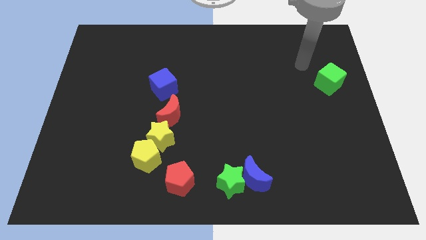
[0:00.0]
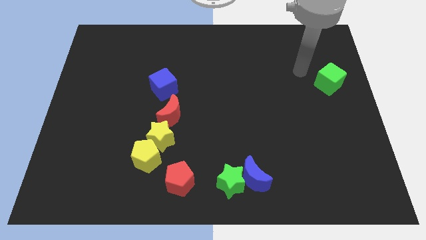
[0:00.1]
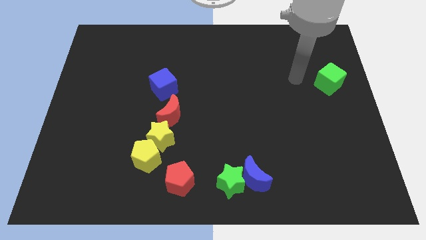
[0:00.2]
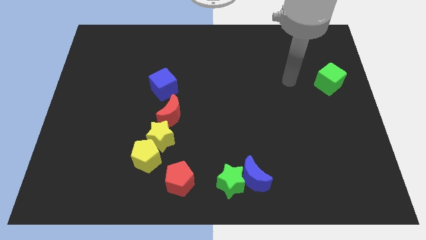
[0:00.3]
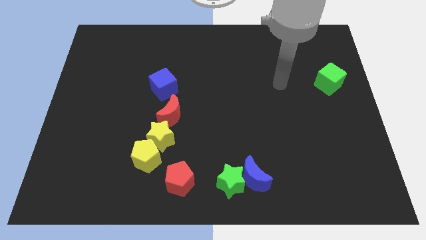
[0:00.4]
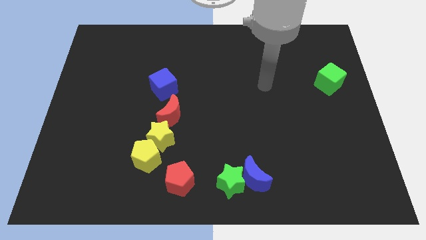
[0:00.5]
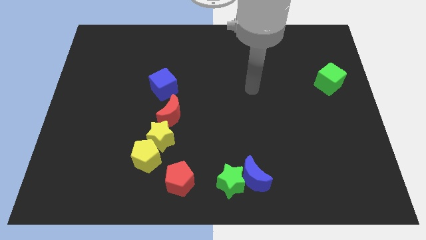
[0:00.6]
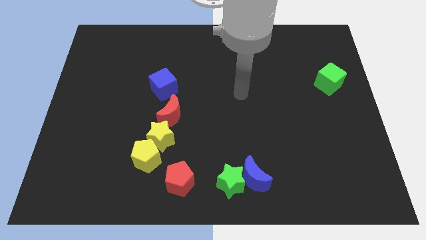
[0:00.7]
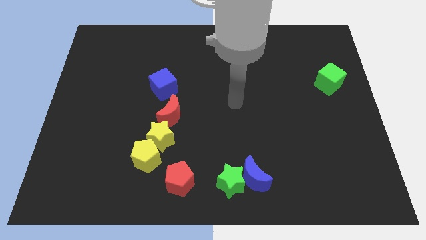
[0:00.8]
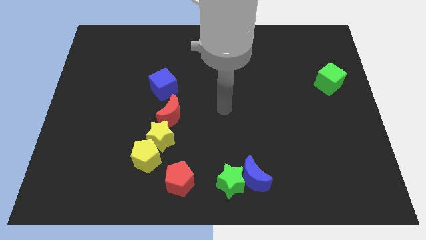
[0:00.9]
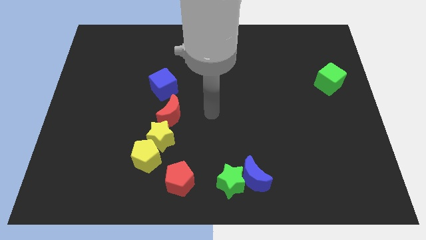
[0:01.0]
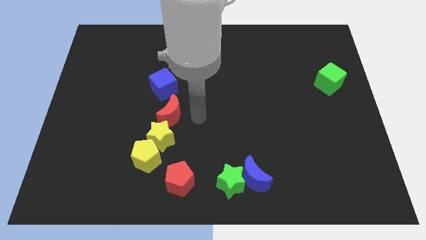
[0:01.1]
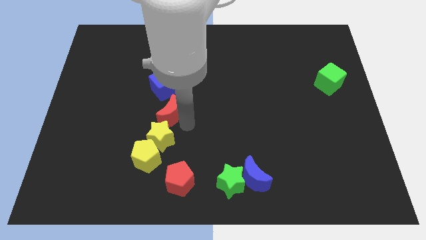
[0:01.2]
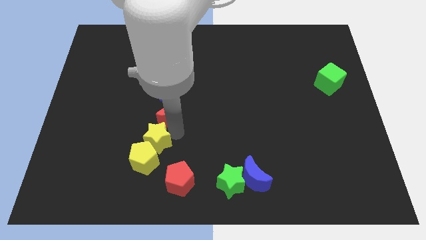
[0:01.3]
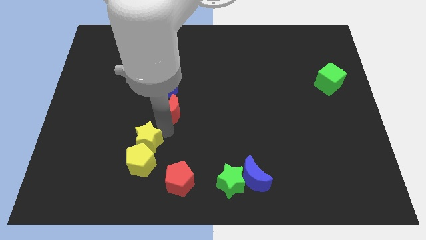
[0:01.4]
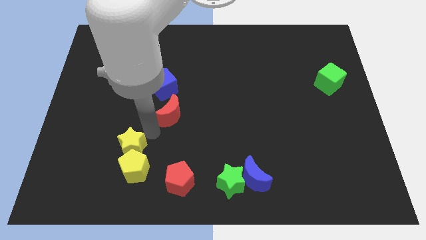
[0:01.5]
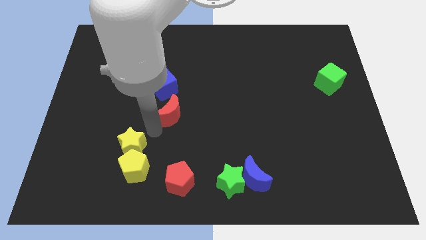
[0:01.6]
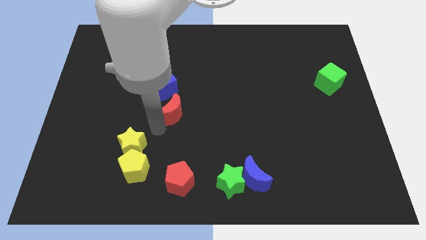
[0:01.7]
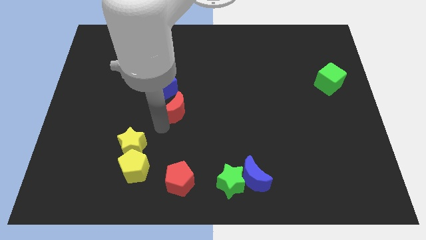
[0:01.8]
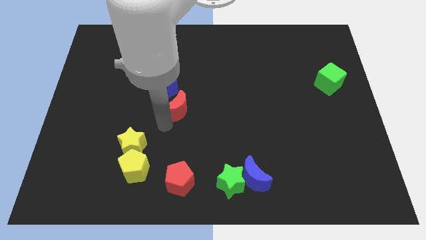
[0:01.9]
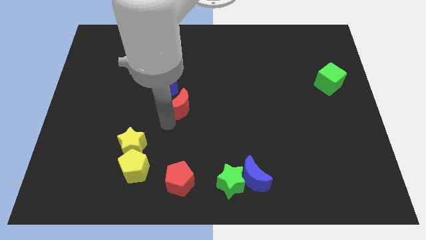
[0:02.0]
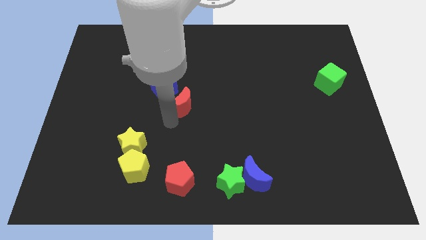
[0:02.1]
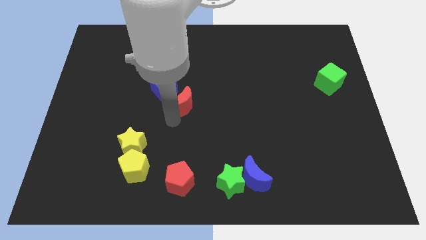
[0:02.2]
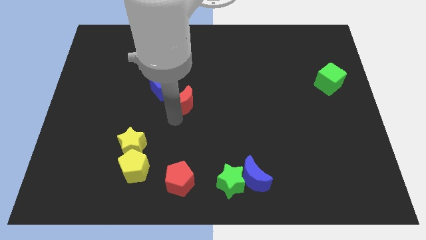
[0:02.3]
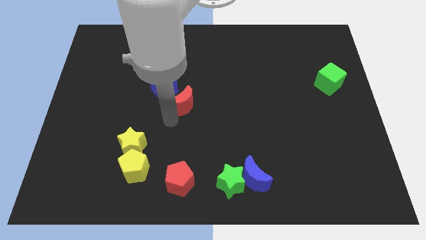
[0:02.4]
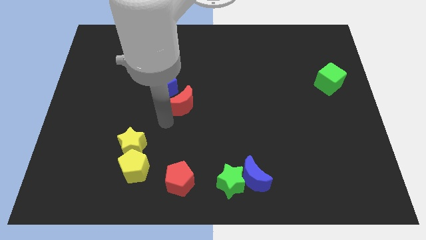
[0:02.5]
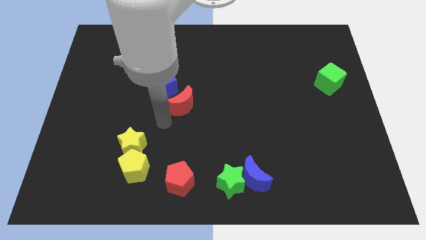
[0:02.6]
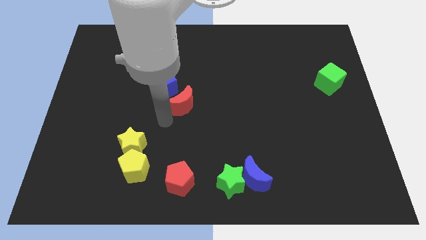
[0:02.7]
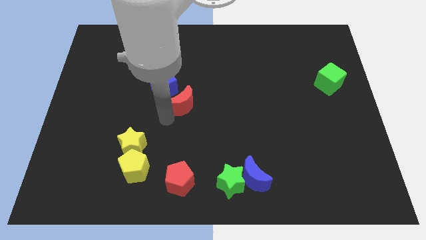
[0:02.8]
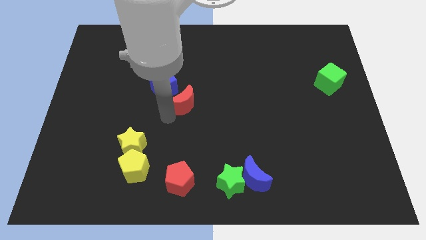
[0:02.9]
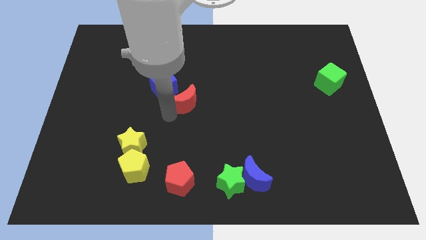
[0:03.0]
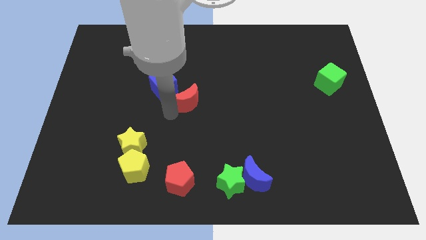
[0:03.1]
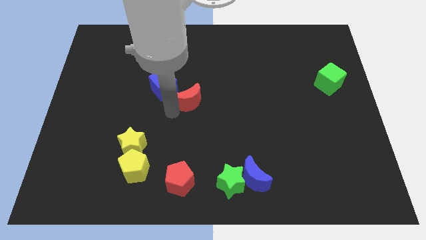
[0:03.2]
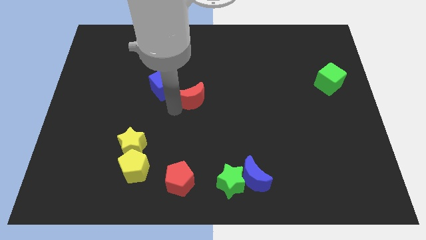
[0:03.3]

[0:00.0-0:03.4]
slightly push the red moon up and right diagonally

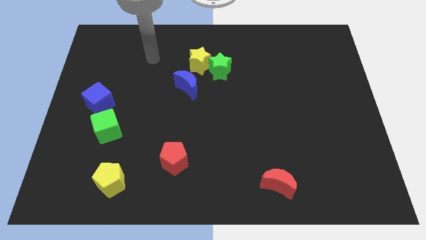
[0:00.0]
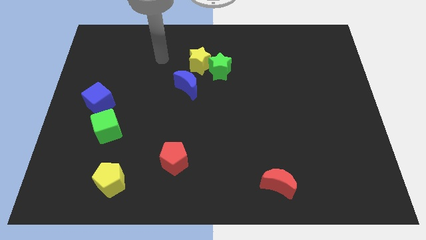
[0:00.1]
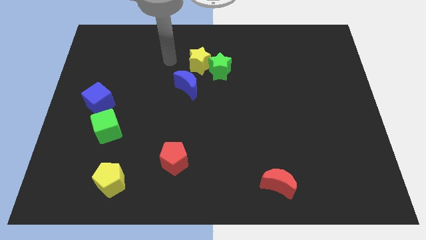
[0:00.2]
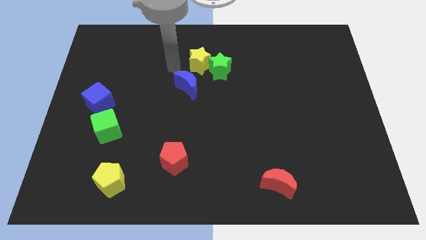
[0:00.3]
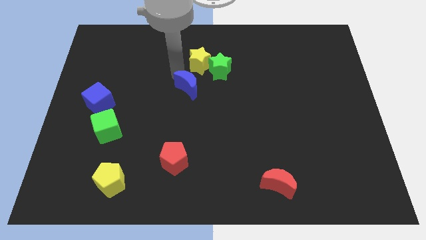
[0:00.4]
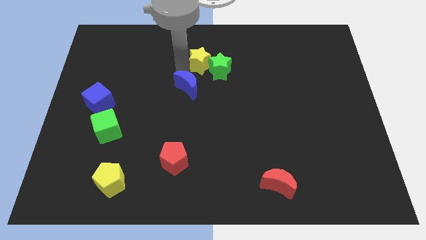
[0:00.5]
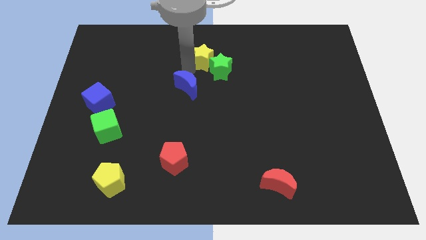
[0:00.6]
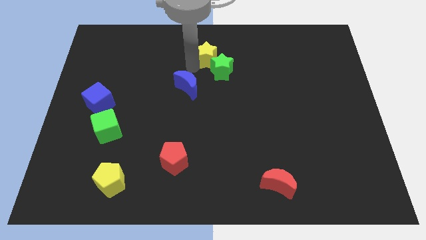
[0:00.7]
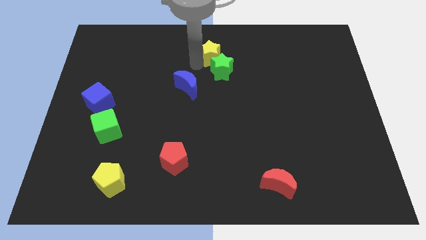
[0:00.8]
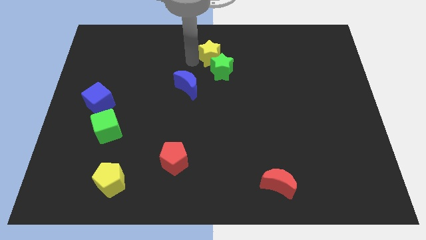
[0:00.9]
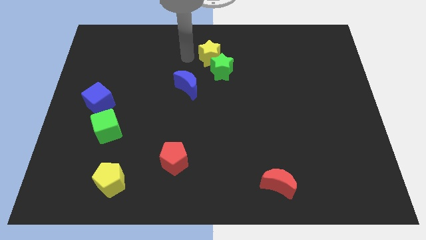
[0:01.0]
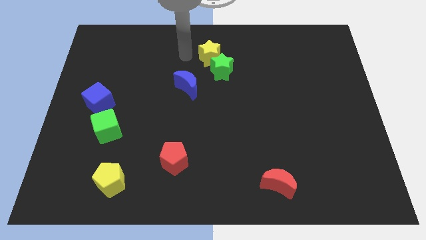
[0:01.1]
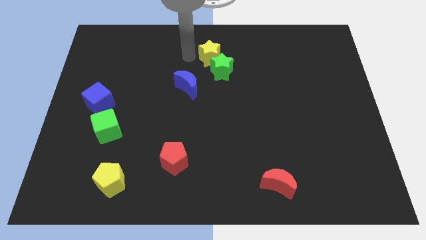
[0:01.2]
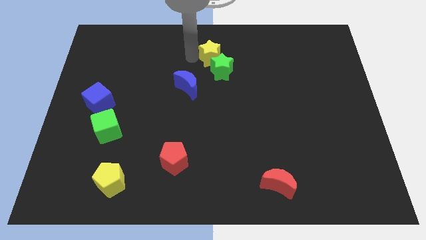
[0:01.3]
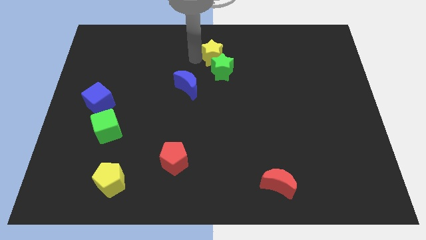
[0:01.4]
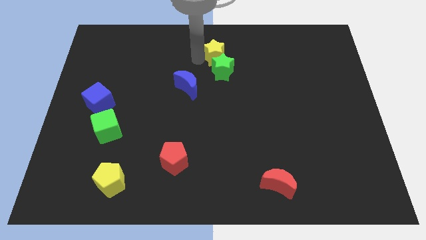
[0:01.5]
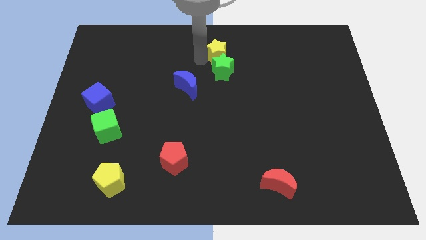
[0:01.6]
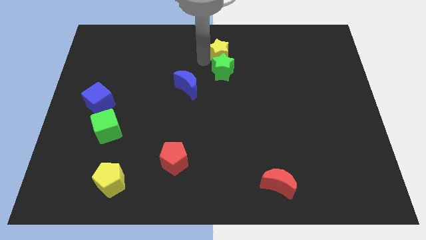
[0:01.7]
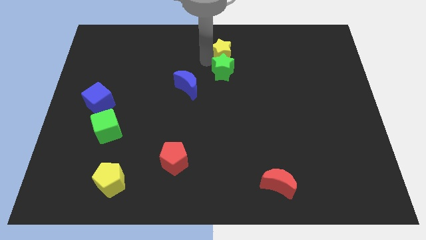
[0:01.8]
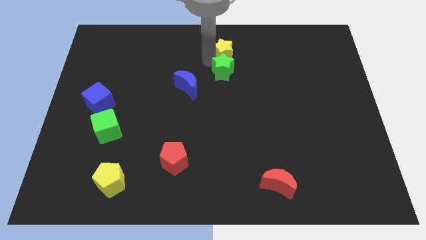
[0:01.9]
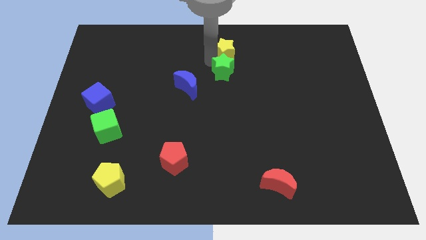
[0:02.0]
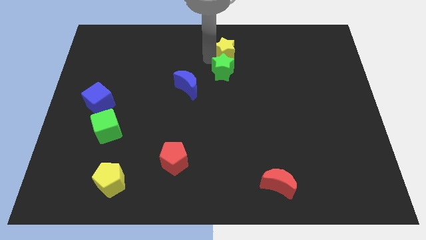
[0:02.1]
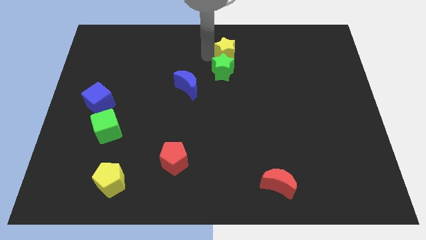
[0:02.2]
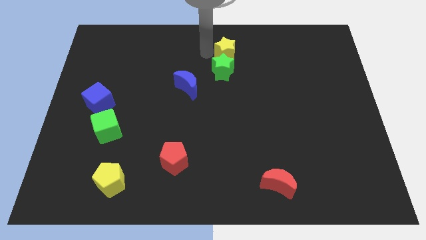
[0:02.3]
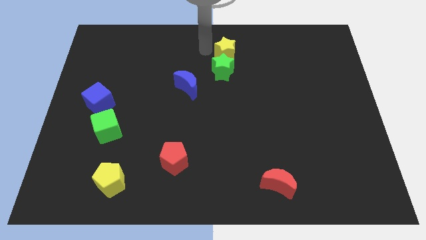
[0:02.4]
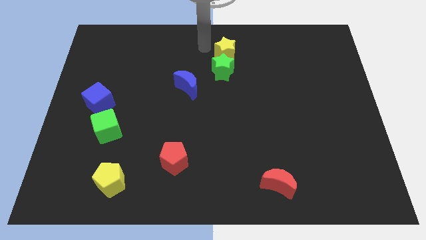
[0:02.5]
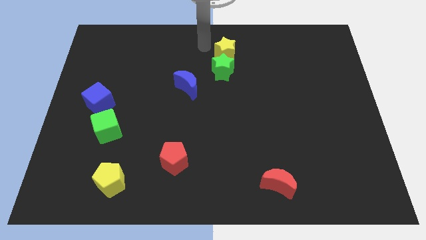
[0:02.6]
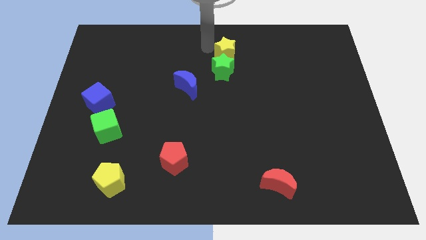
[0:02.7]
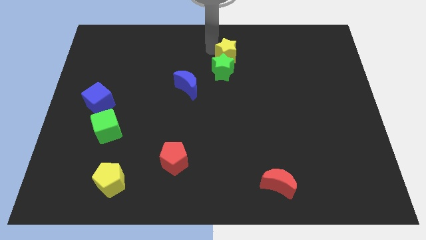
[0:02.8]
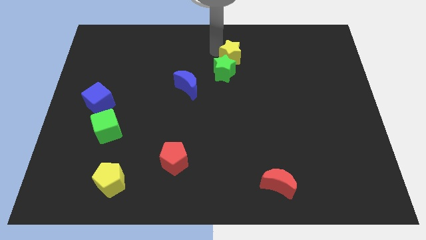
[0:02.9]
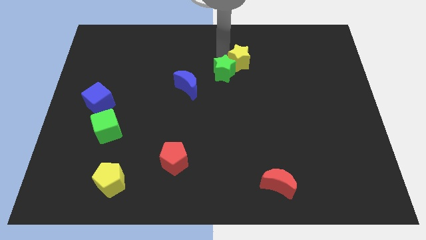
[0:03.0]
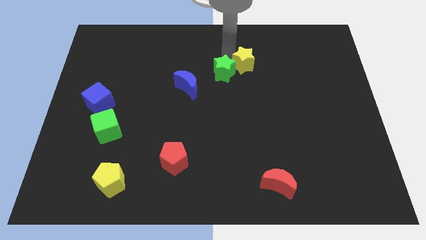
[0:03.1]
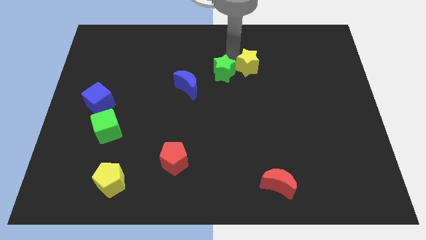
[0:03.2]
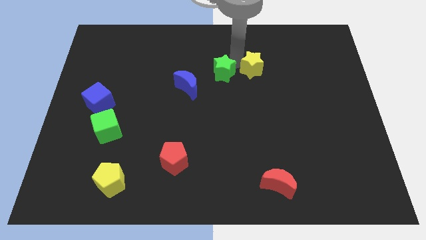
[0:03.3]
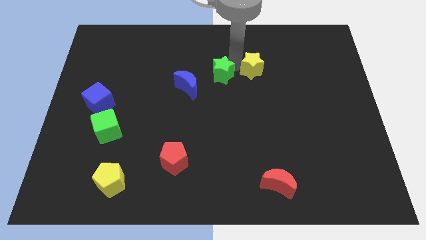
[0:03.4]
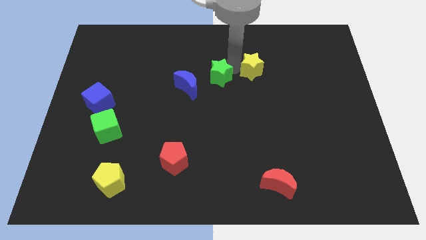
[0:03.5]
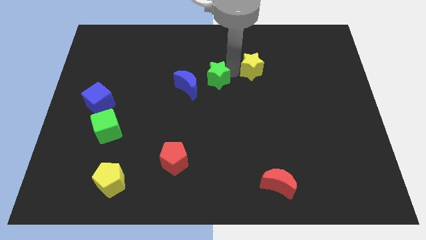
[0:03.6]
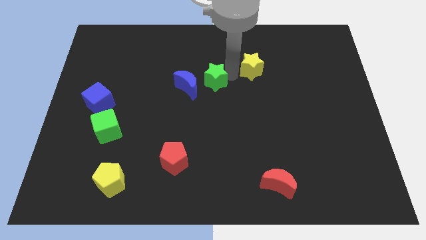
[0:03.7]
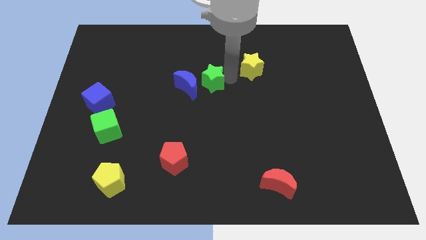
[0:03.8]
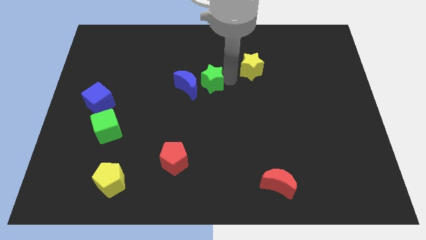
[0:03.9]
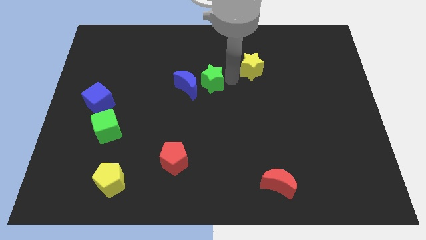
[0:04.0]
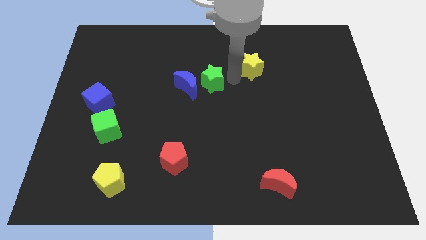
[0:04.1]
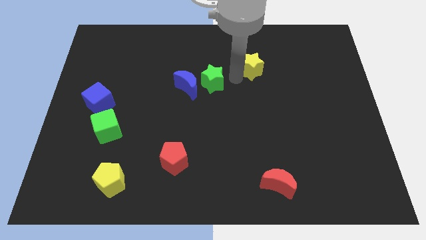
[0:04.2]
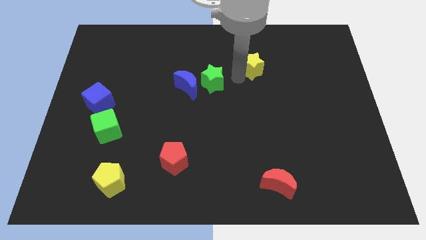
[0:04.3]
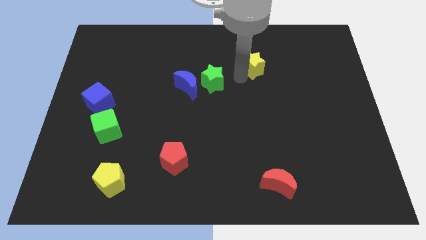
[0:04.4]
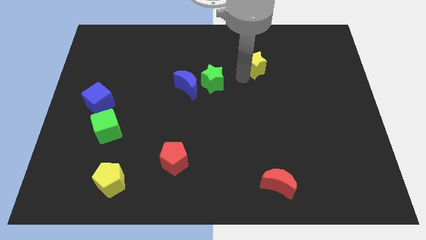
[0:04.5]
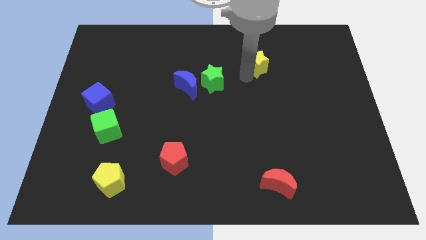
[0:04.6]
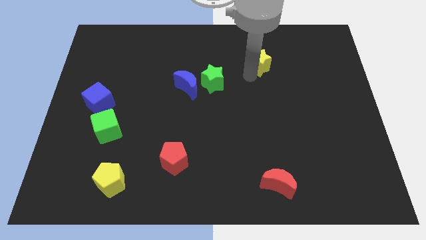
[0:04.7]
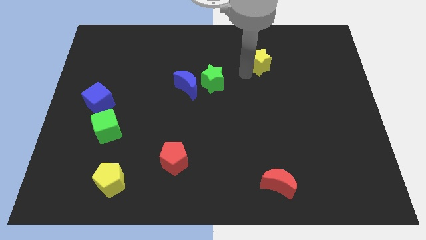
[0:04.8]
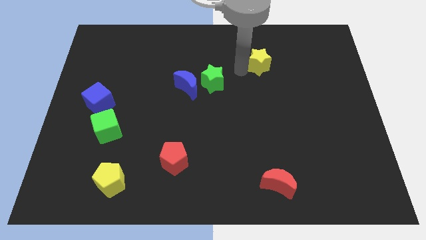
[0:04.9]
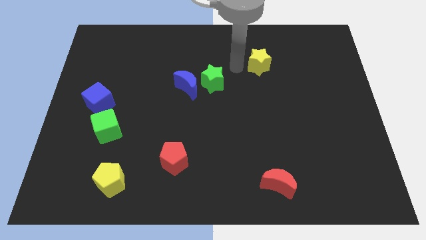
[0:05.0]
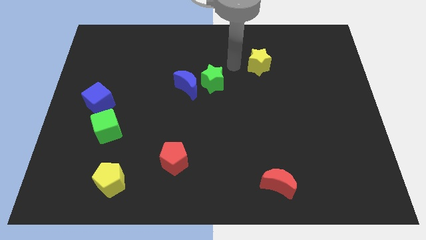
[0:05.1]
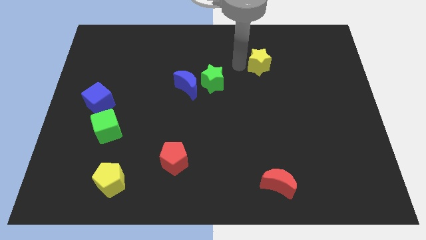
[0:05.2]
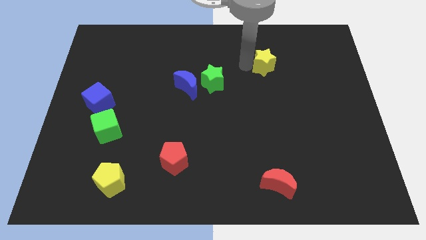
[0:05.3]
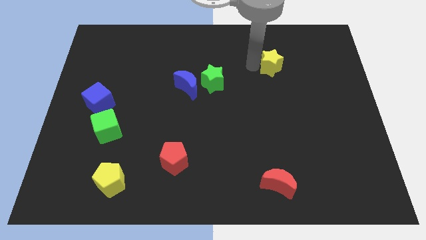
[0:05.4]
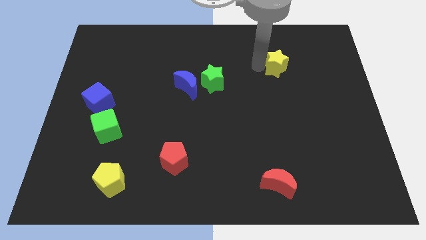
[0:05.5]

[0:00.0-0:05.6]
slide the yellow star right
